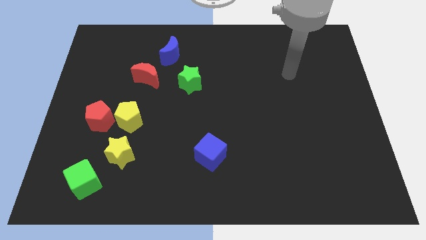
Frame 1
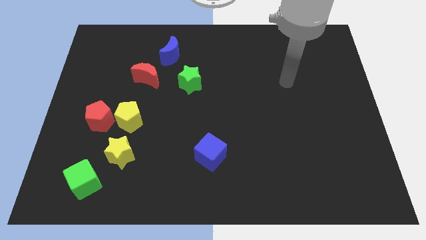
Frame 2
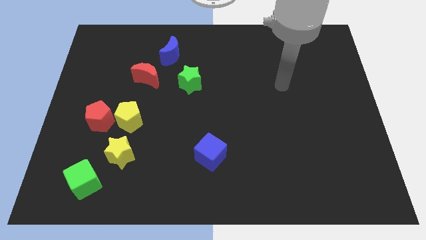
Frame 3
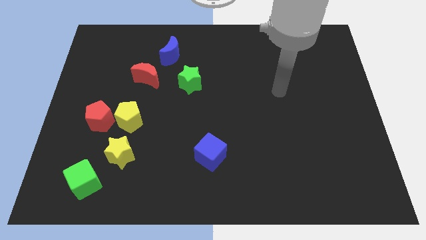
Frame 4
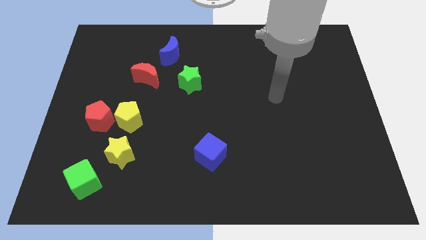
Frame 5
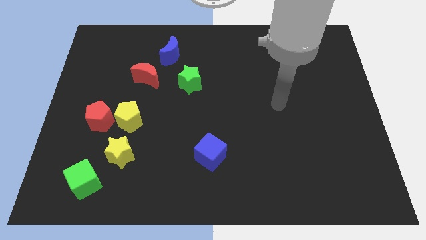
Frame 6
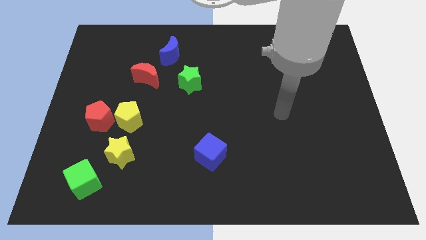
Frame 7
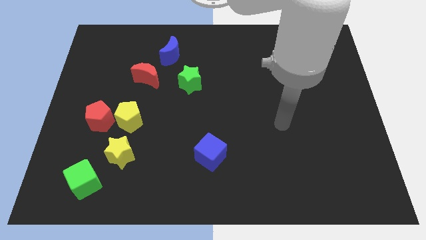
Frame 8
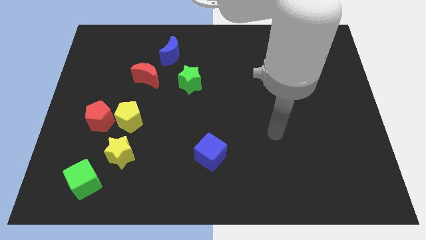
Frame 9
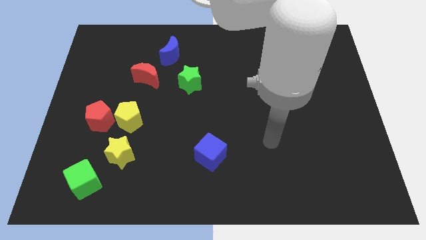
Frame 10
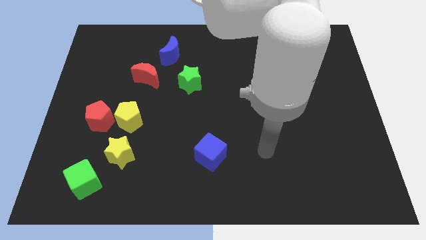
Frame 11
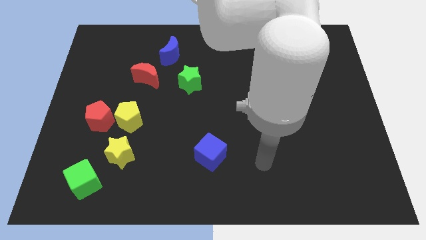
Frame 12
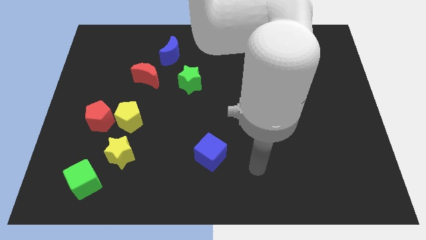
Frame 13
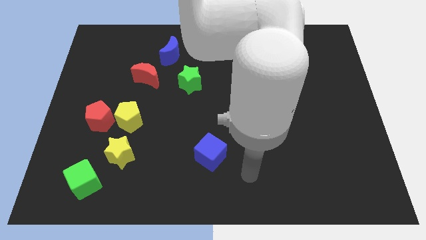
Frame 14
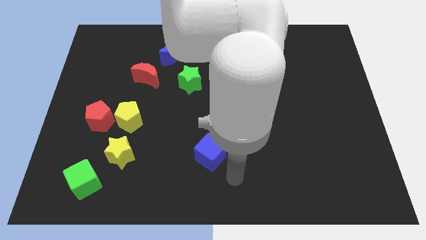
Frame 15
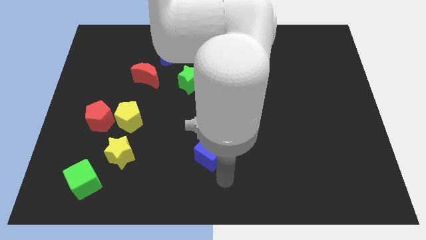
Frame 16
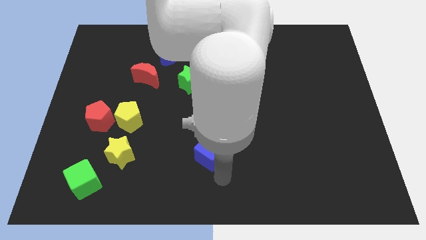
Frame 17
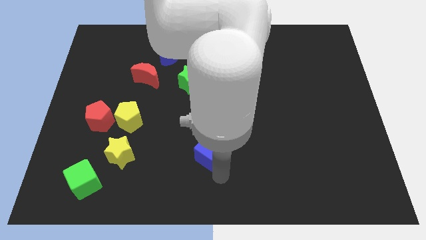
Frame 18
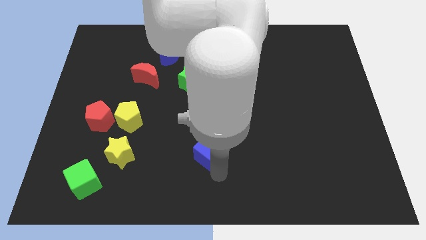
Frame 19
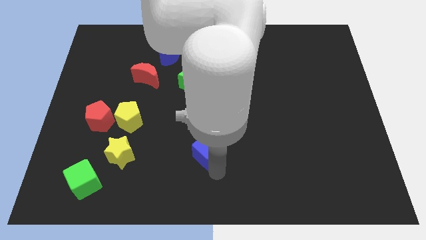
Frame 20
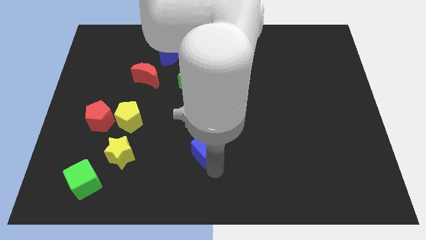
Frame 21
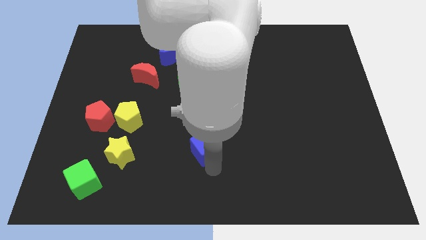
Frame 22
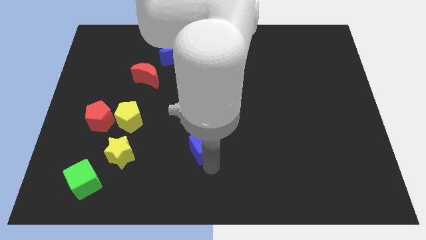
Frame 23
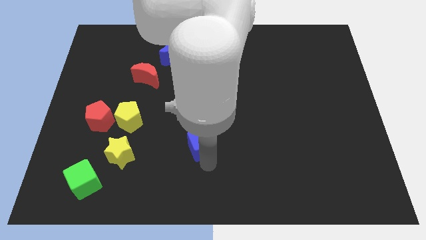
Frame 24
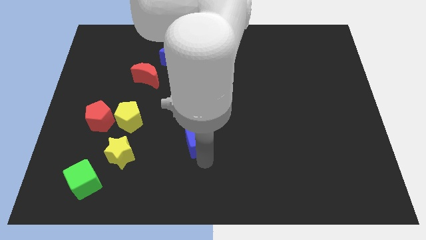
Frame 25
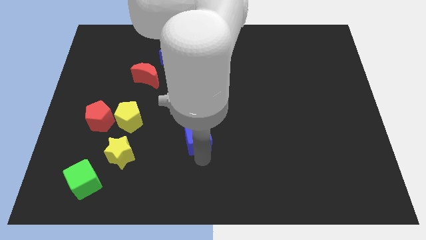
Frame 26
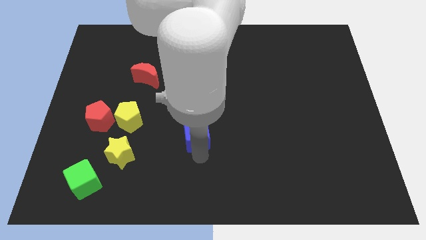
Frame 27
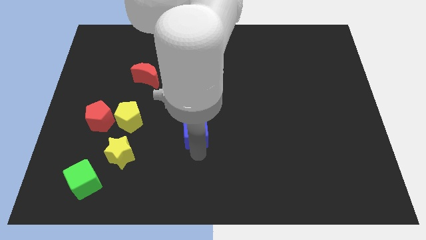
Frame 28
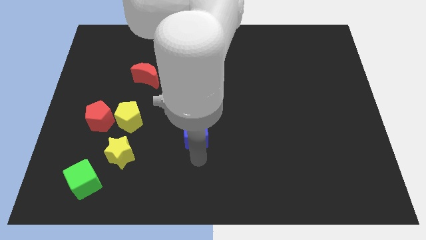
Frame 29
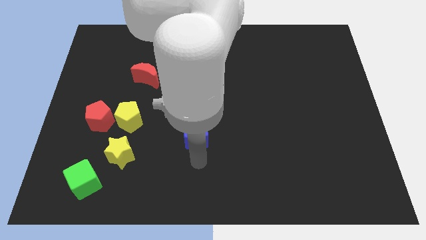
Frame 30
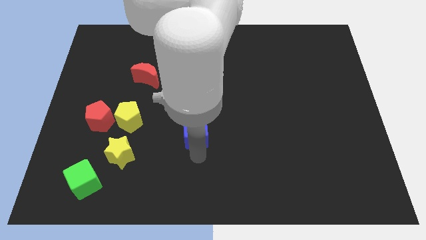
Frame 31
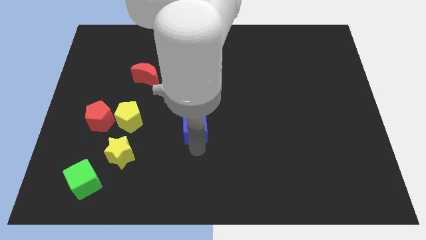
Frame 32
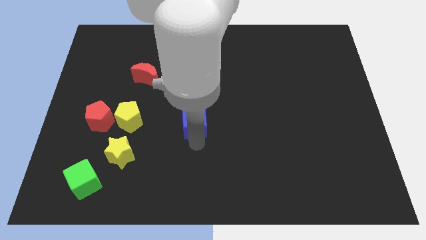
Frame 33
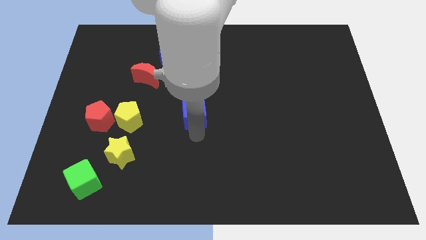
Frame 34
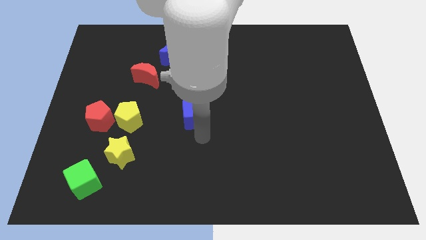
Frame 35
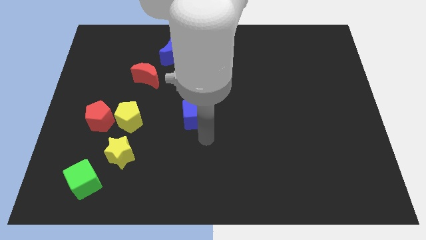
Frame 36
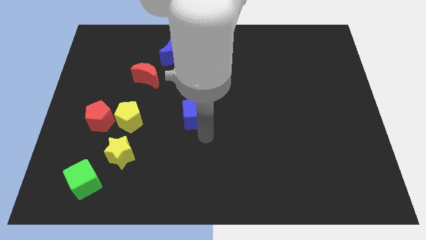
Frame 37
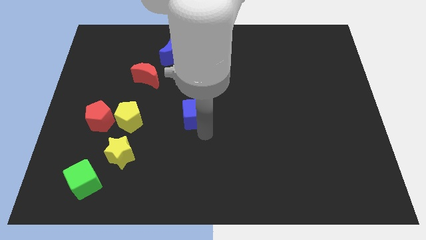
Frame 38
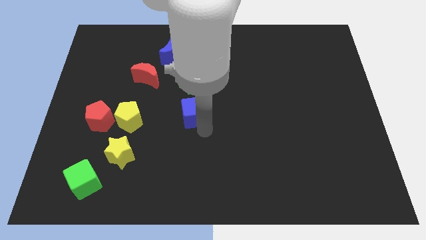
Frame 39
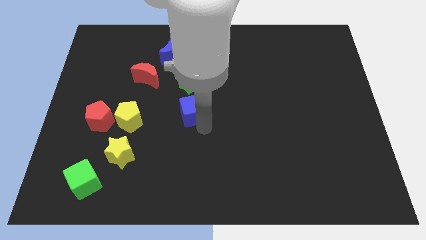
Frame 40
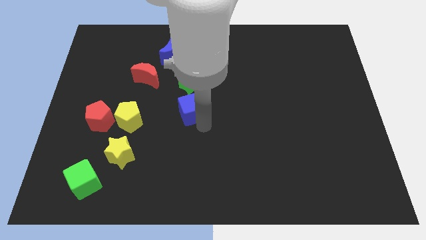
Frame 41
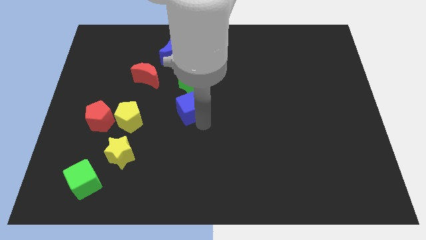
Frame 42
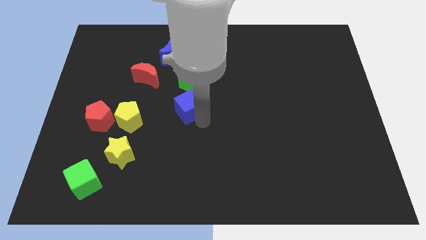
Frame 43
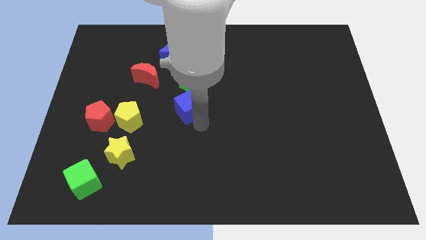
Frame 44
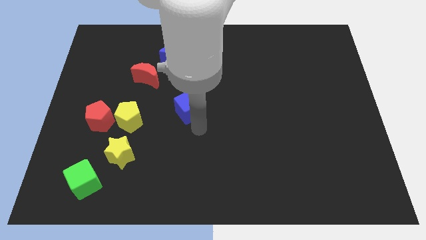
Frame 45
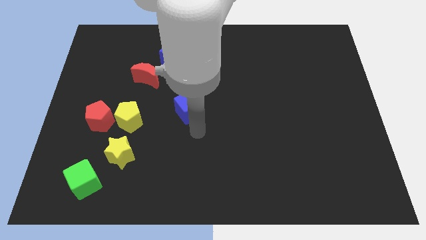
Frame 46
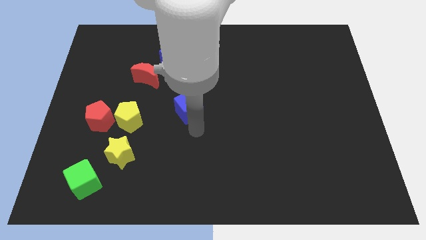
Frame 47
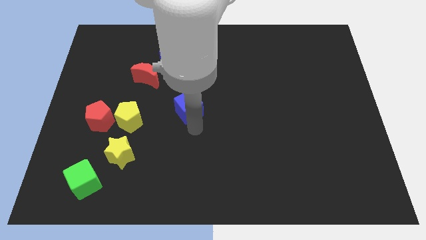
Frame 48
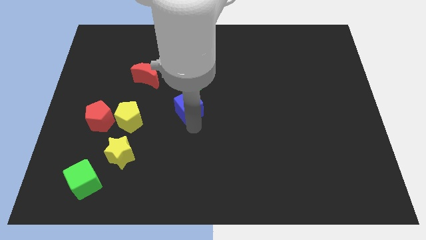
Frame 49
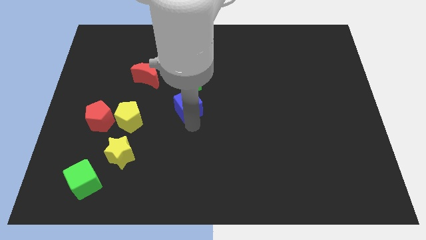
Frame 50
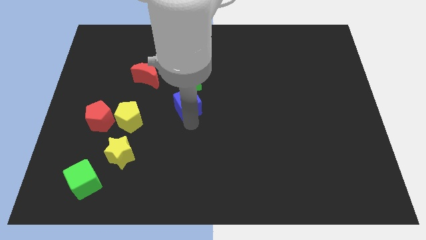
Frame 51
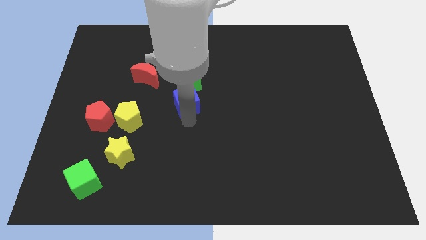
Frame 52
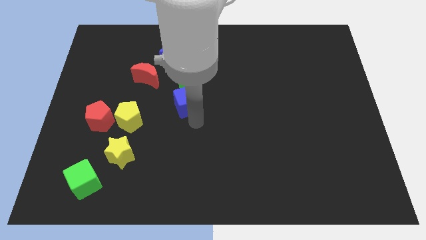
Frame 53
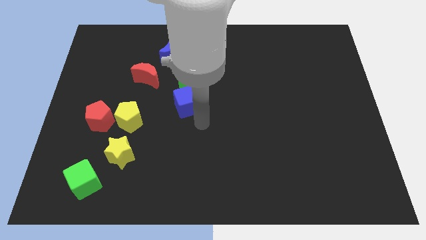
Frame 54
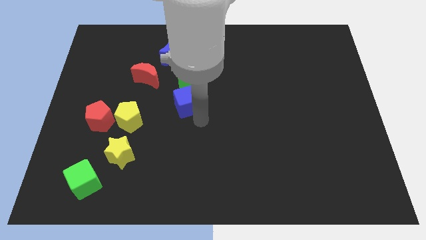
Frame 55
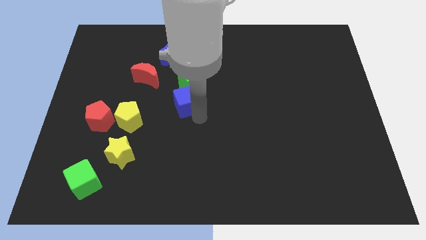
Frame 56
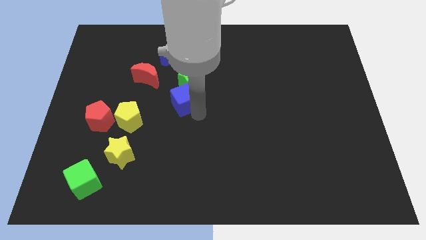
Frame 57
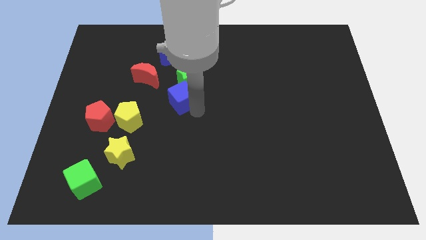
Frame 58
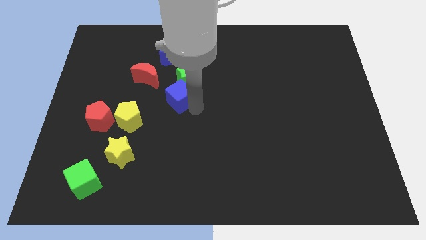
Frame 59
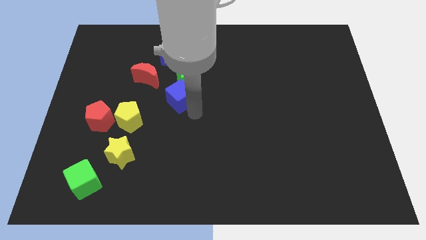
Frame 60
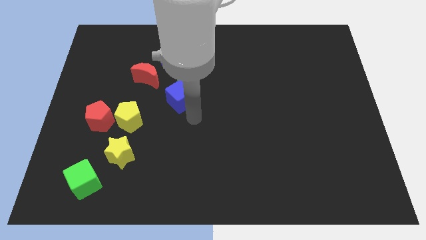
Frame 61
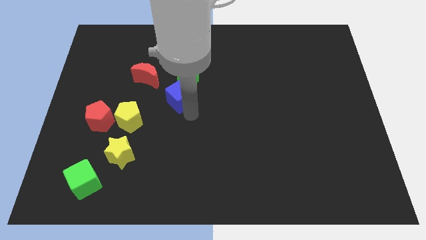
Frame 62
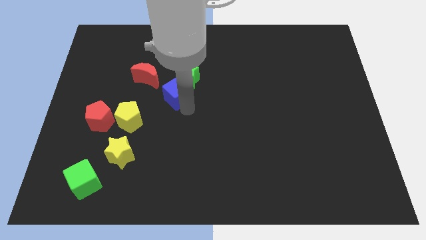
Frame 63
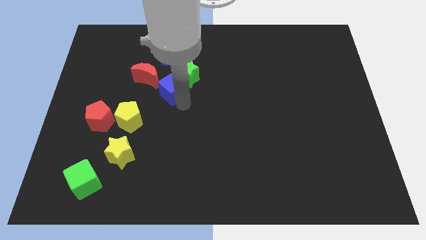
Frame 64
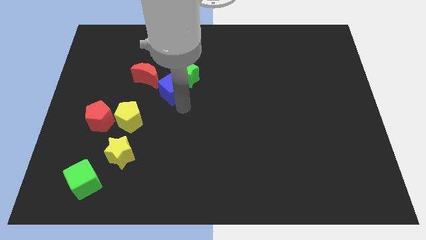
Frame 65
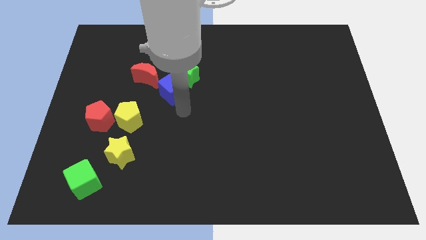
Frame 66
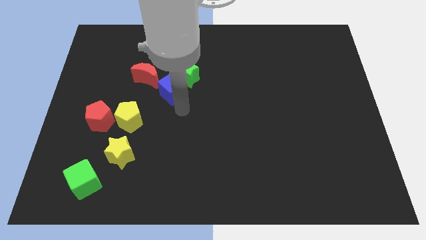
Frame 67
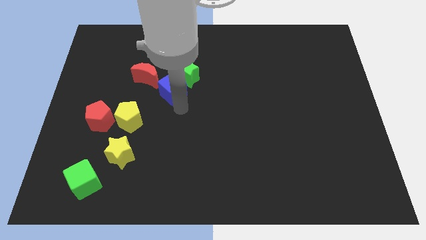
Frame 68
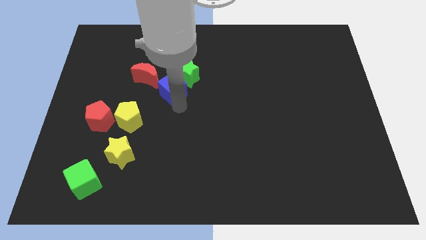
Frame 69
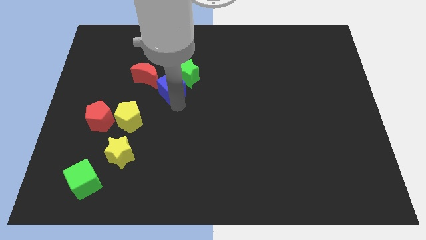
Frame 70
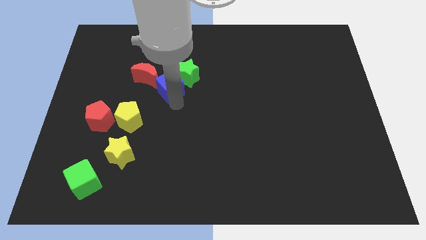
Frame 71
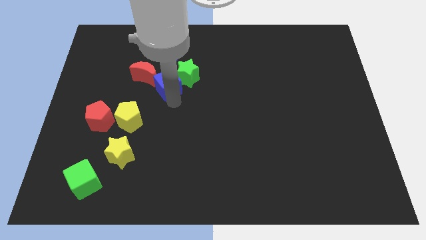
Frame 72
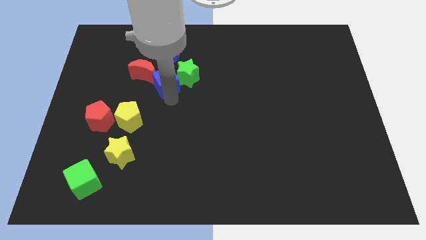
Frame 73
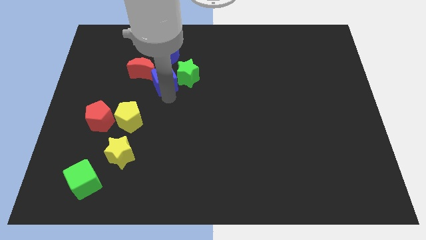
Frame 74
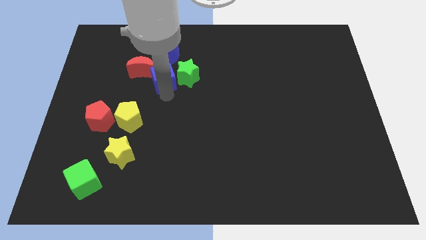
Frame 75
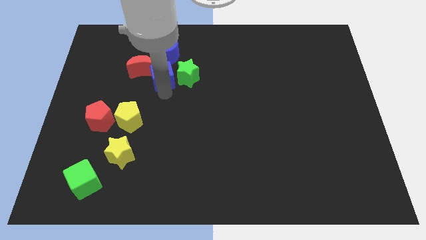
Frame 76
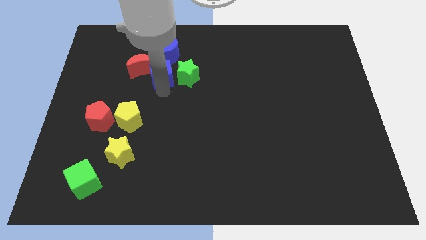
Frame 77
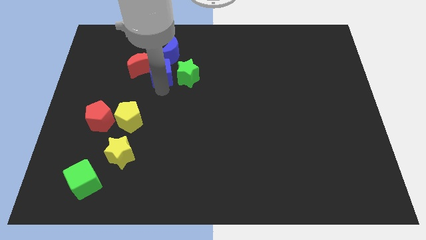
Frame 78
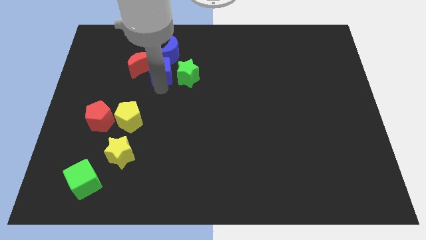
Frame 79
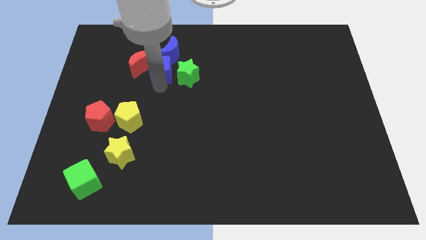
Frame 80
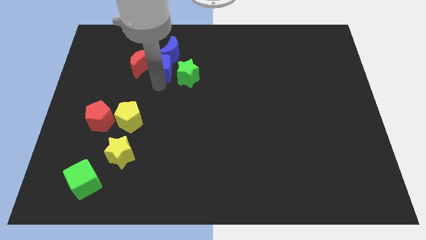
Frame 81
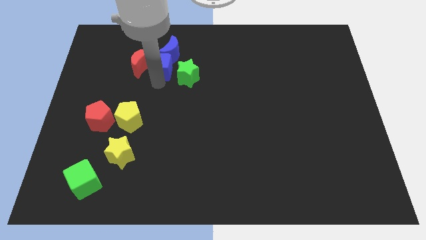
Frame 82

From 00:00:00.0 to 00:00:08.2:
slide the blue cube close to the blue moon
